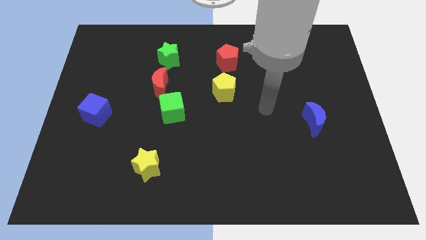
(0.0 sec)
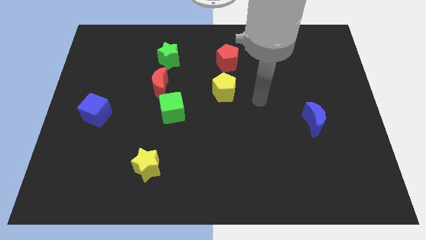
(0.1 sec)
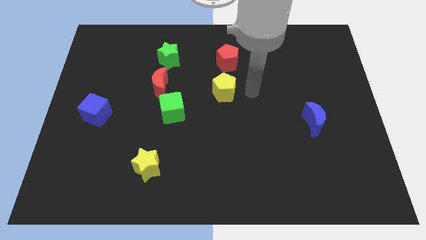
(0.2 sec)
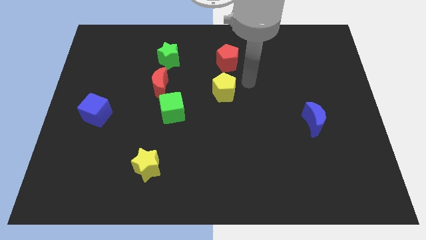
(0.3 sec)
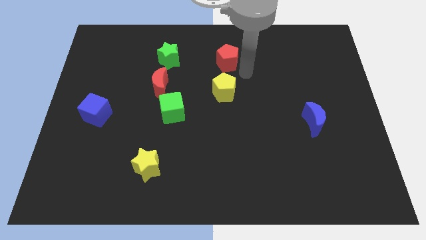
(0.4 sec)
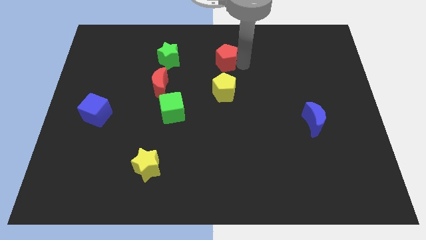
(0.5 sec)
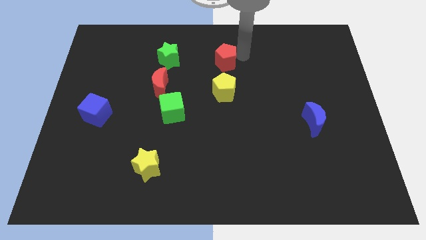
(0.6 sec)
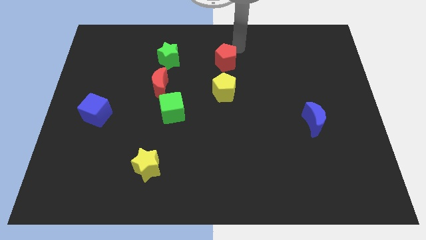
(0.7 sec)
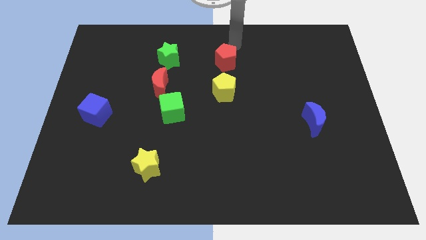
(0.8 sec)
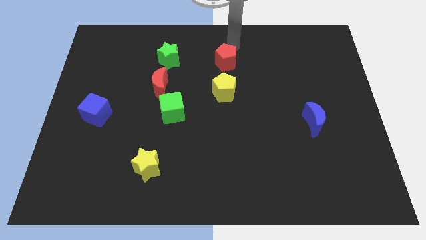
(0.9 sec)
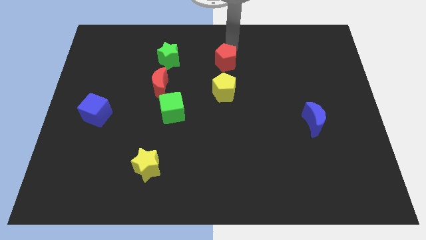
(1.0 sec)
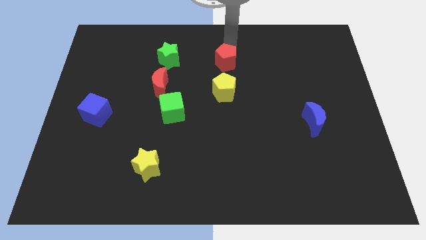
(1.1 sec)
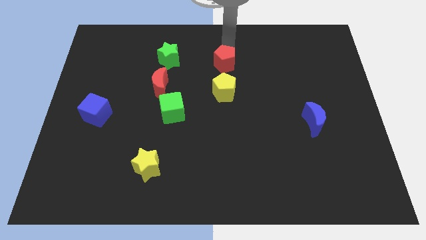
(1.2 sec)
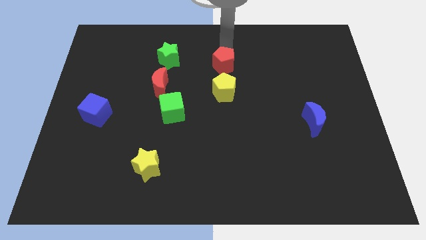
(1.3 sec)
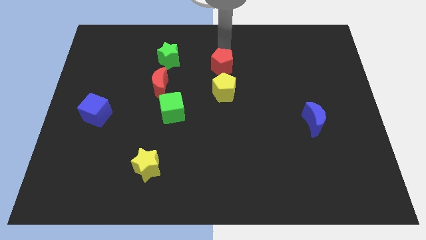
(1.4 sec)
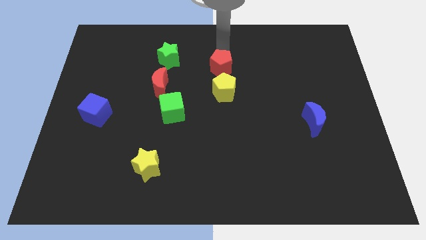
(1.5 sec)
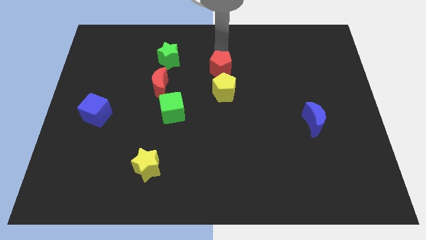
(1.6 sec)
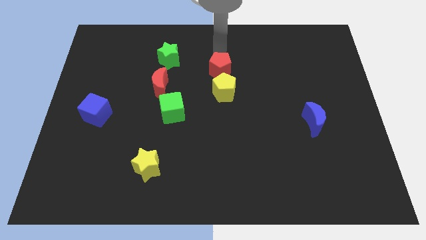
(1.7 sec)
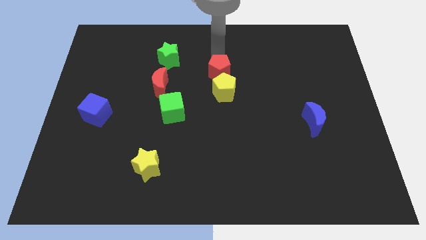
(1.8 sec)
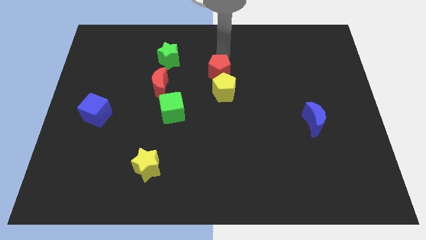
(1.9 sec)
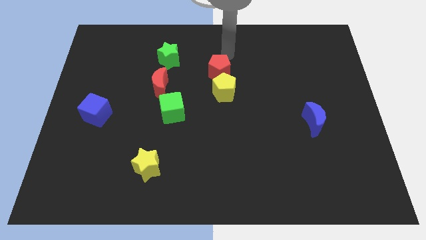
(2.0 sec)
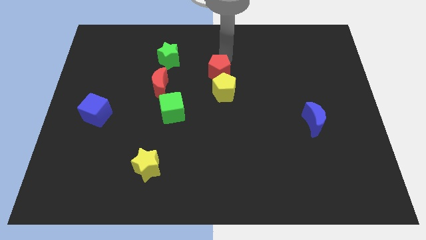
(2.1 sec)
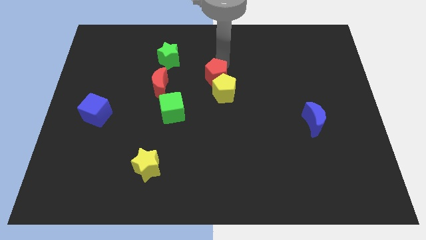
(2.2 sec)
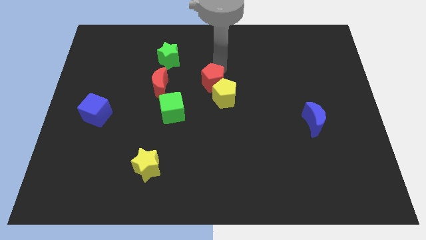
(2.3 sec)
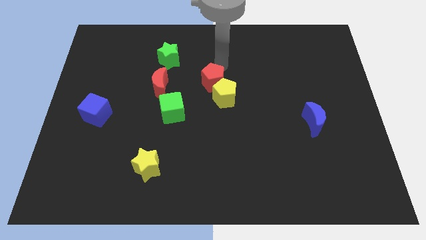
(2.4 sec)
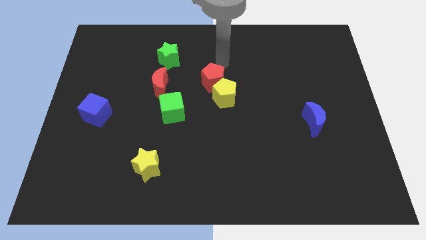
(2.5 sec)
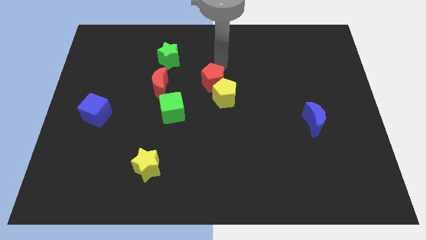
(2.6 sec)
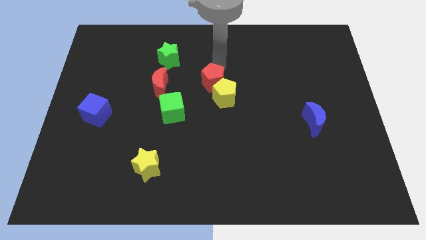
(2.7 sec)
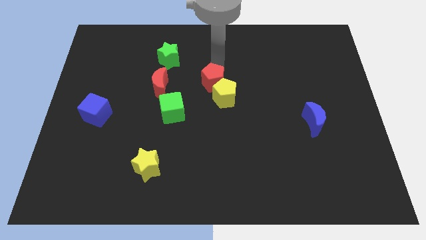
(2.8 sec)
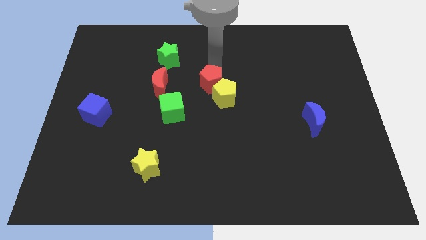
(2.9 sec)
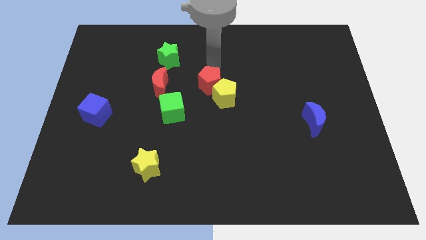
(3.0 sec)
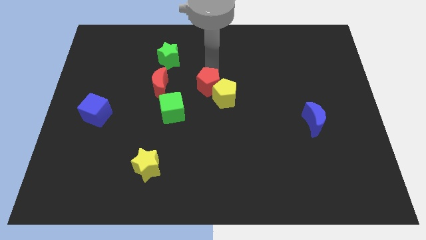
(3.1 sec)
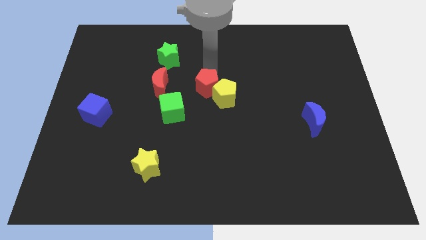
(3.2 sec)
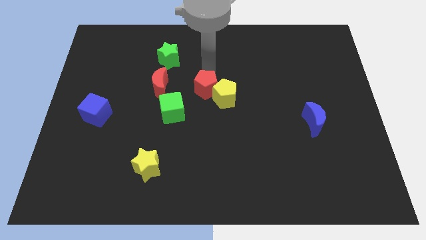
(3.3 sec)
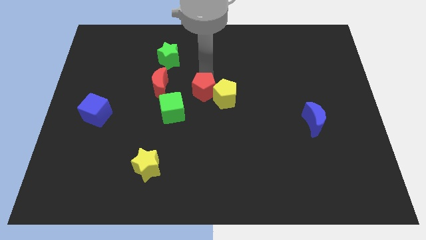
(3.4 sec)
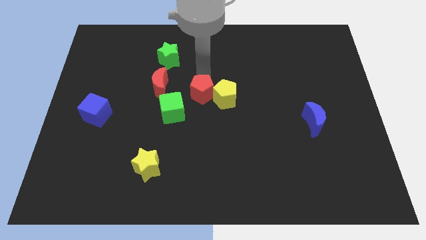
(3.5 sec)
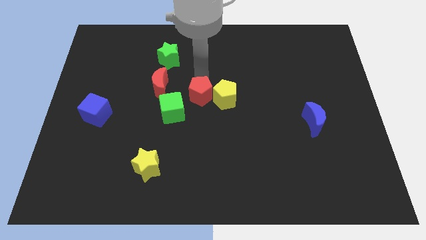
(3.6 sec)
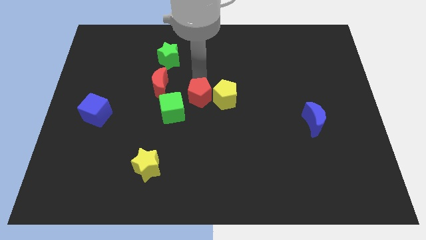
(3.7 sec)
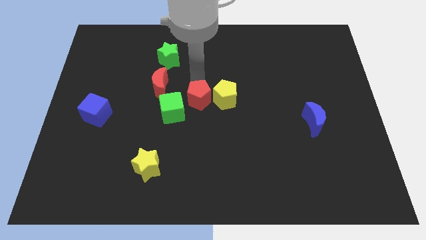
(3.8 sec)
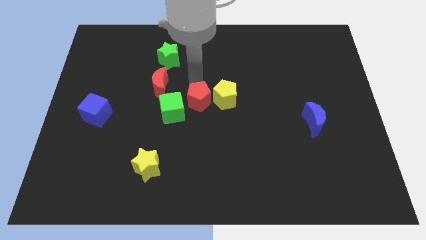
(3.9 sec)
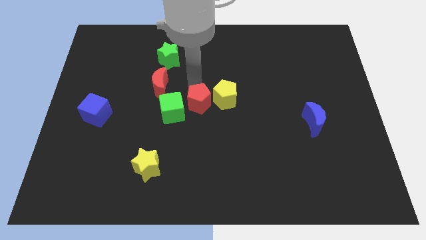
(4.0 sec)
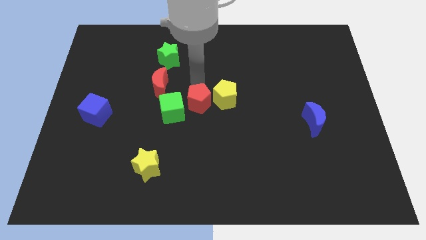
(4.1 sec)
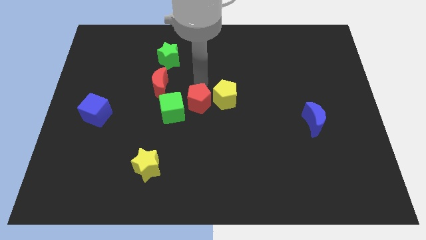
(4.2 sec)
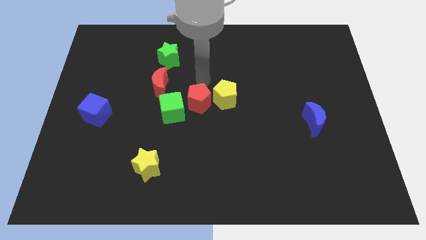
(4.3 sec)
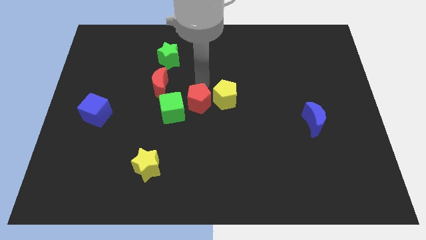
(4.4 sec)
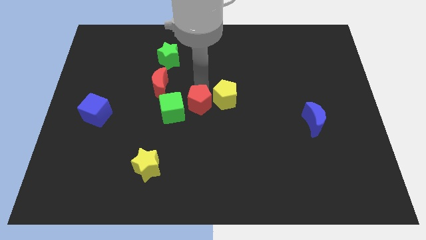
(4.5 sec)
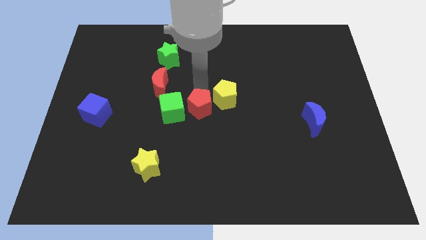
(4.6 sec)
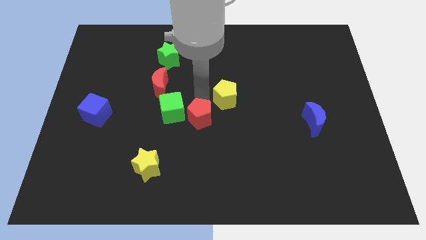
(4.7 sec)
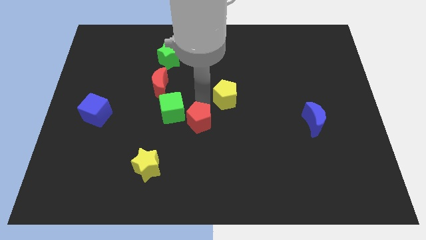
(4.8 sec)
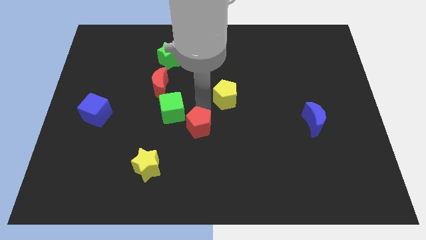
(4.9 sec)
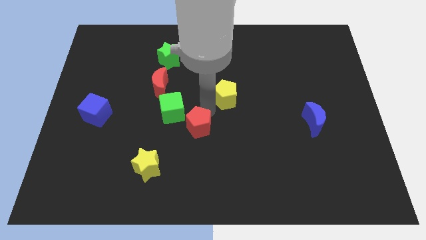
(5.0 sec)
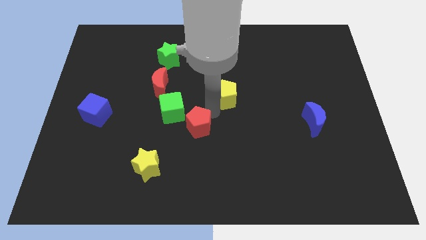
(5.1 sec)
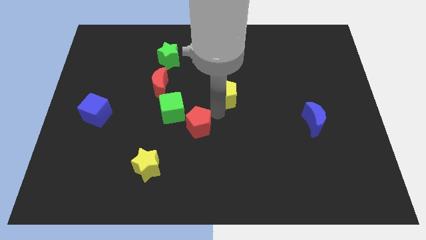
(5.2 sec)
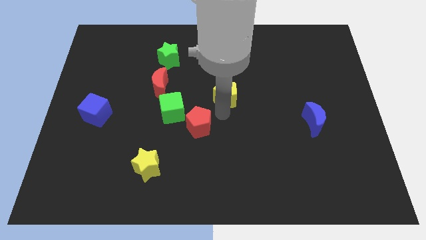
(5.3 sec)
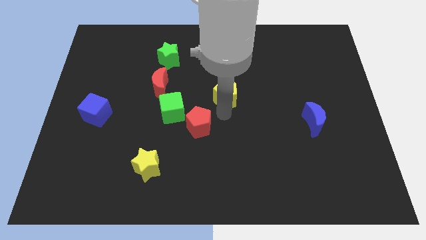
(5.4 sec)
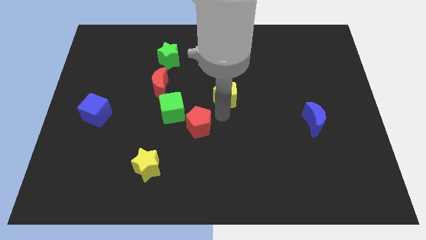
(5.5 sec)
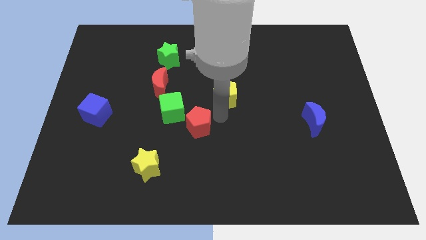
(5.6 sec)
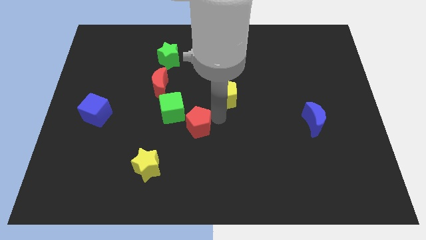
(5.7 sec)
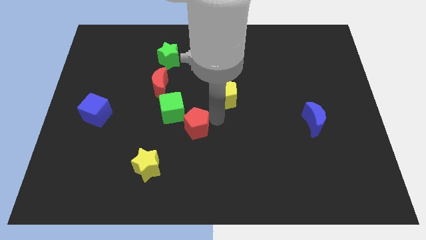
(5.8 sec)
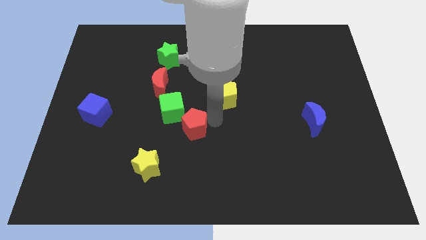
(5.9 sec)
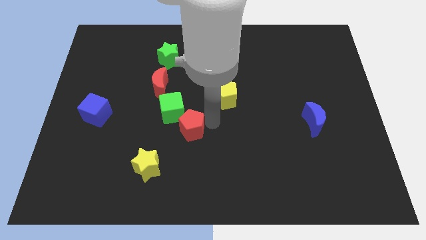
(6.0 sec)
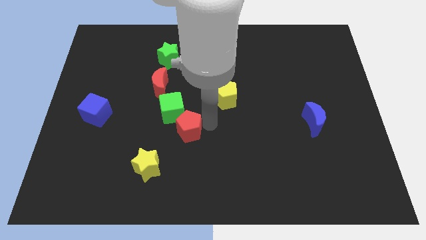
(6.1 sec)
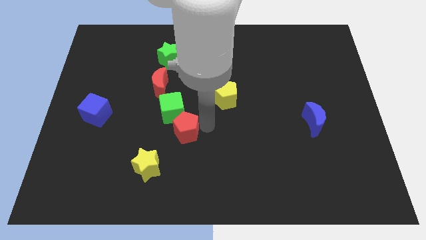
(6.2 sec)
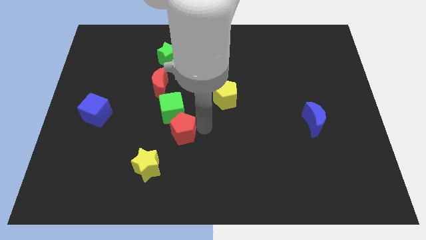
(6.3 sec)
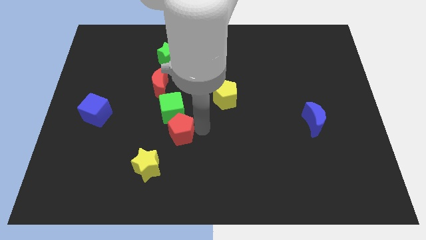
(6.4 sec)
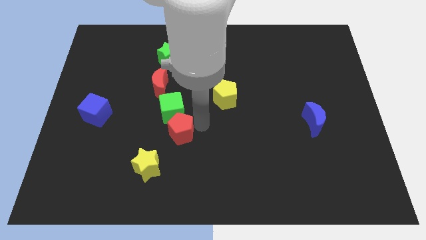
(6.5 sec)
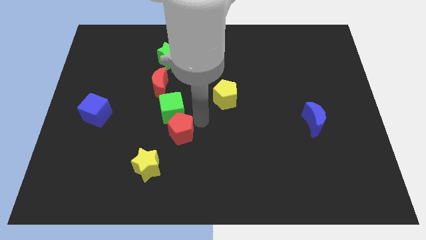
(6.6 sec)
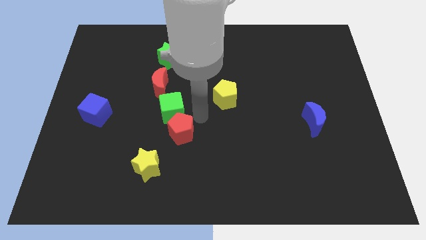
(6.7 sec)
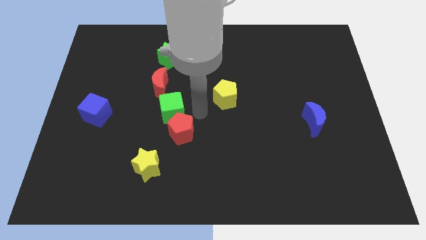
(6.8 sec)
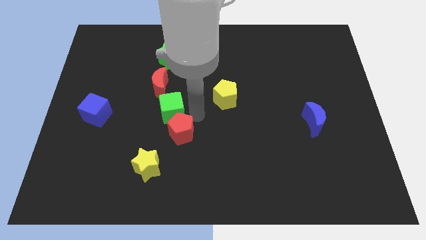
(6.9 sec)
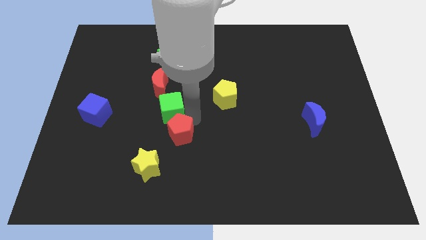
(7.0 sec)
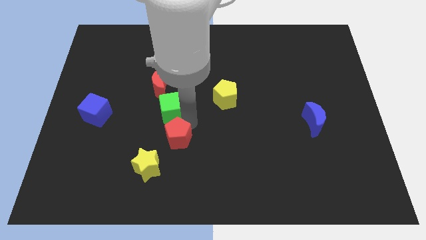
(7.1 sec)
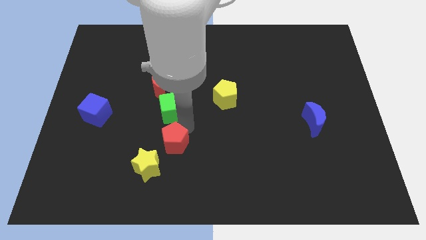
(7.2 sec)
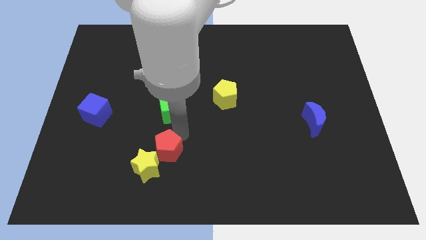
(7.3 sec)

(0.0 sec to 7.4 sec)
slide the red pentagon towards the yellow star
